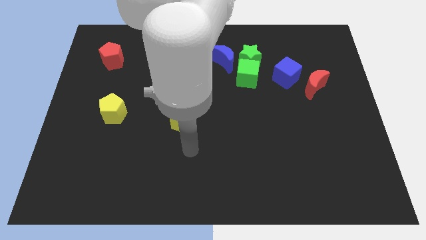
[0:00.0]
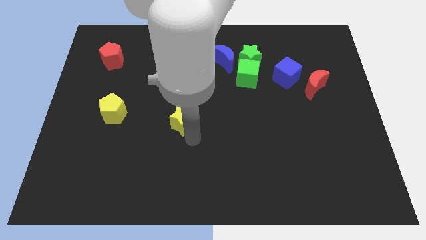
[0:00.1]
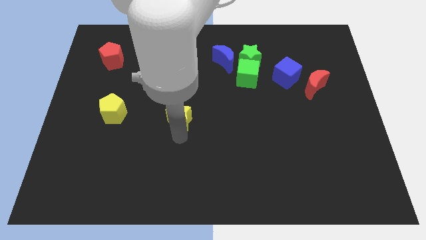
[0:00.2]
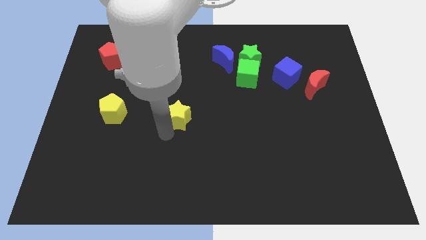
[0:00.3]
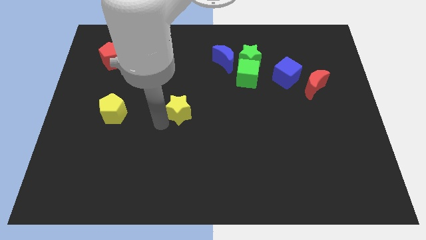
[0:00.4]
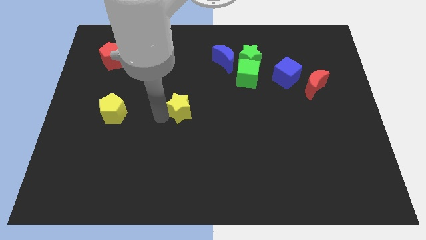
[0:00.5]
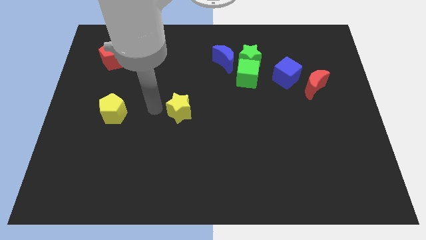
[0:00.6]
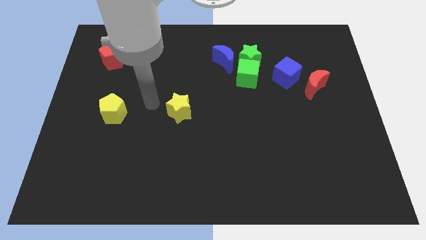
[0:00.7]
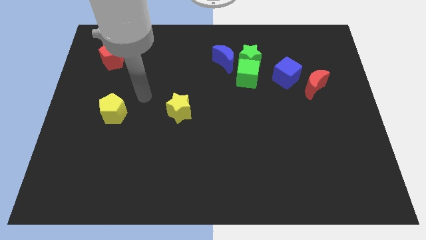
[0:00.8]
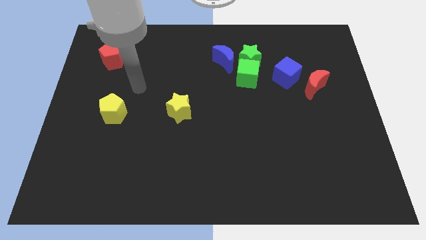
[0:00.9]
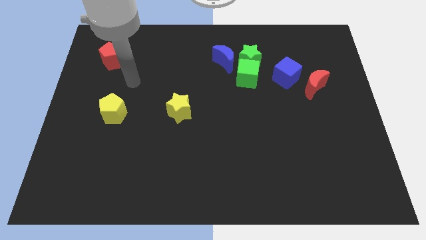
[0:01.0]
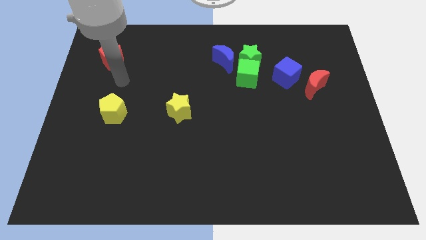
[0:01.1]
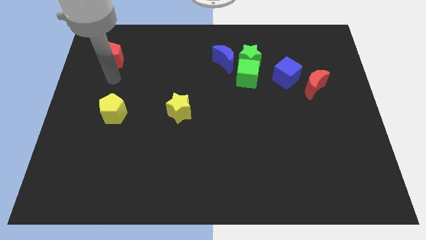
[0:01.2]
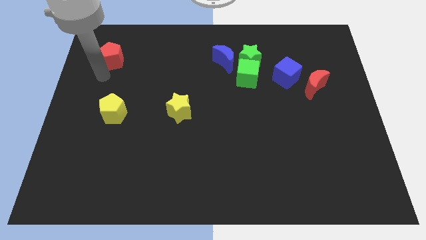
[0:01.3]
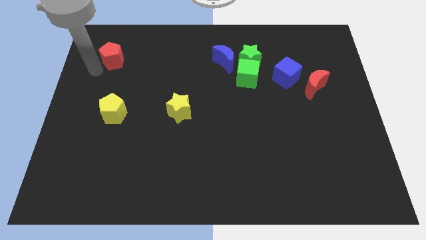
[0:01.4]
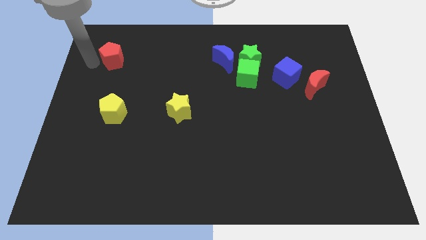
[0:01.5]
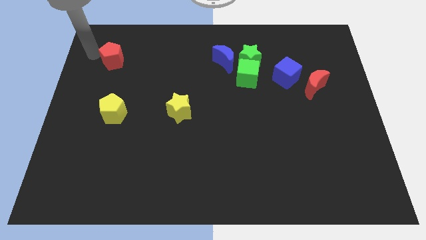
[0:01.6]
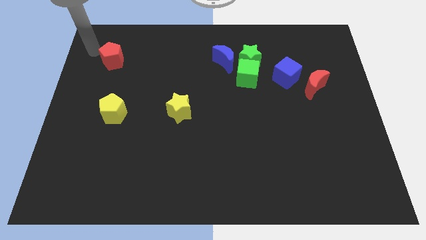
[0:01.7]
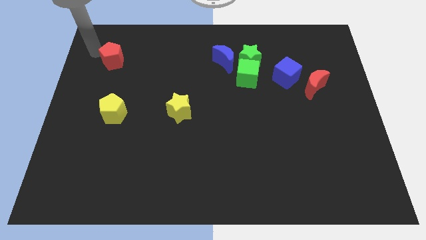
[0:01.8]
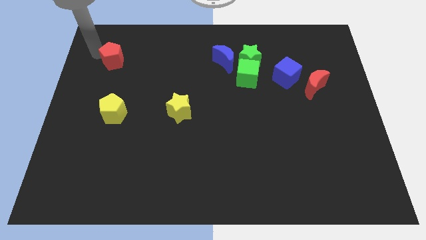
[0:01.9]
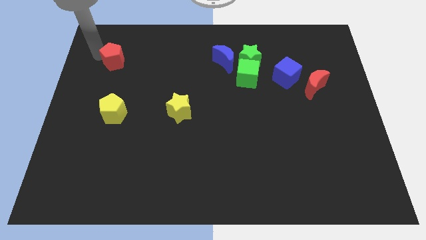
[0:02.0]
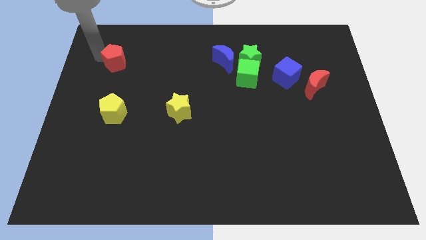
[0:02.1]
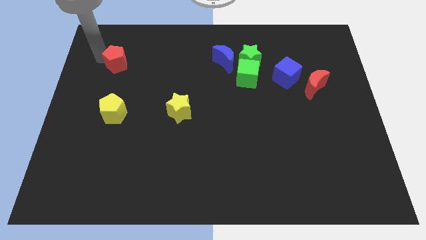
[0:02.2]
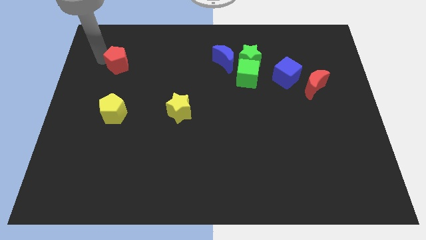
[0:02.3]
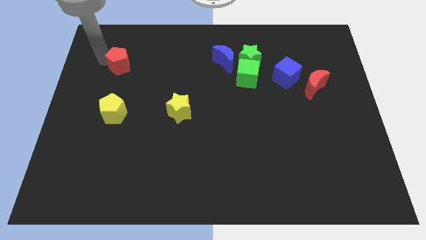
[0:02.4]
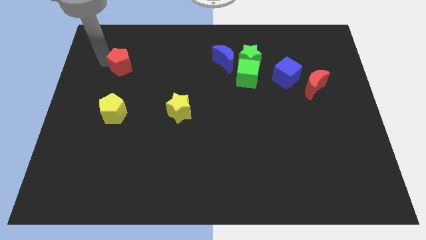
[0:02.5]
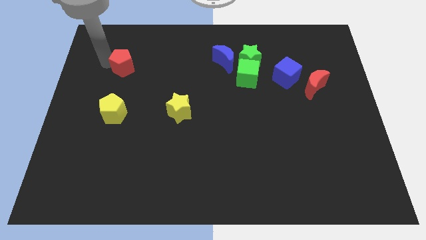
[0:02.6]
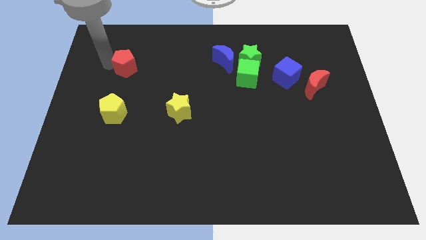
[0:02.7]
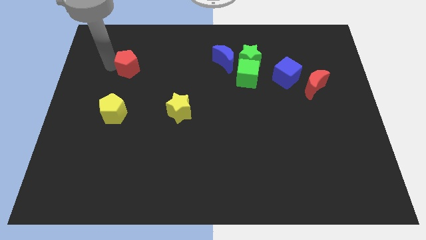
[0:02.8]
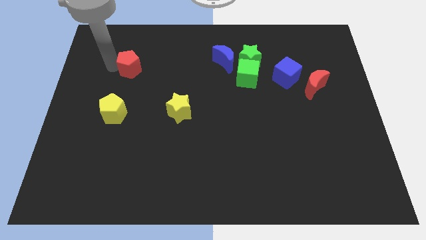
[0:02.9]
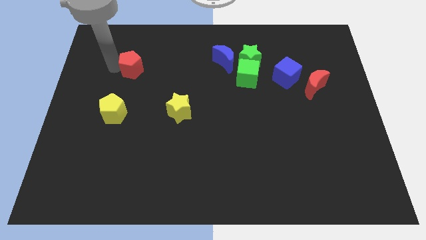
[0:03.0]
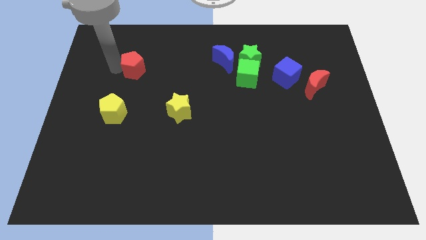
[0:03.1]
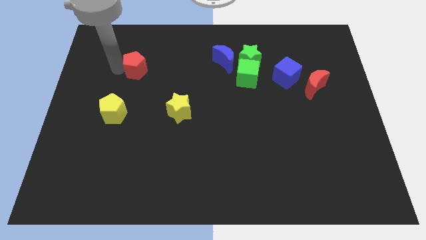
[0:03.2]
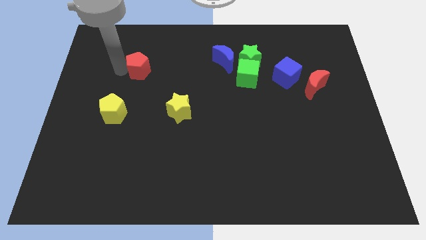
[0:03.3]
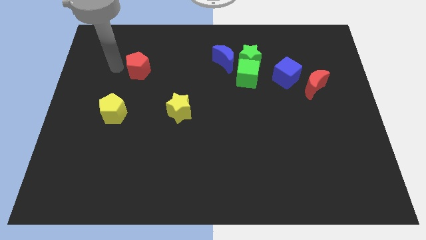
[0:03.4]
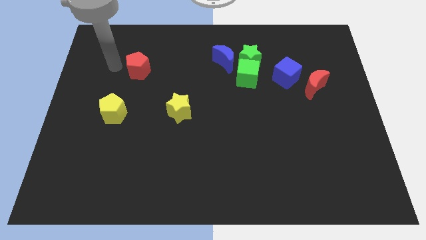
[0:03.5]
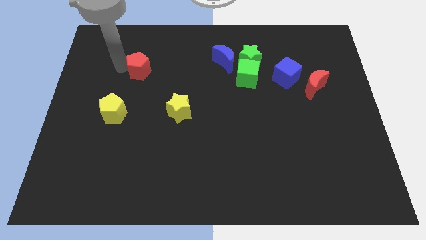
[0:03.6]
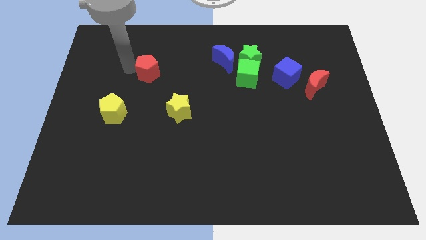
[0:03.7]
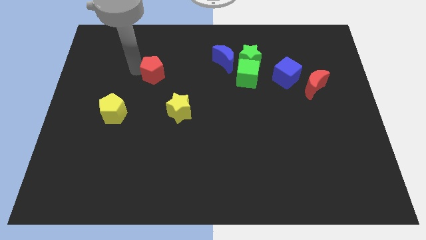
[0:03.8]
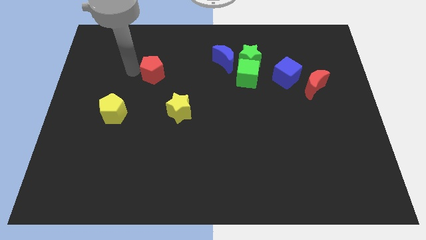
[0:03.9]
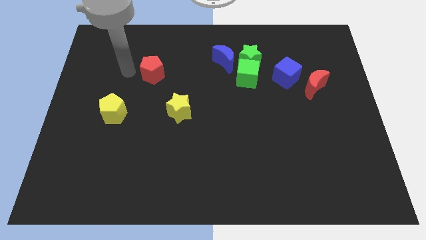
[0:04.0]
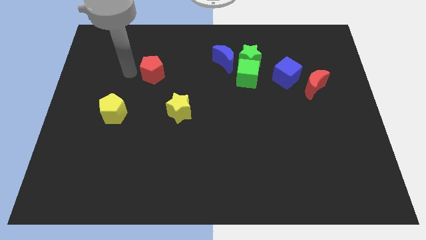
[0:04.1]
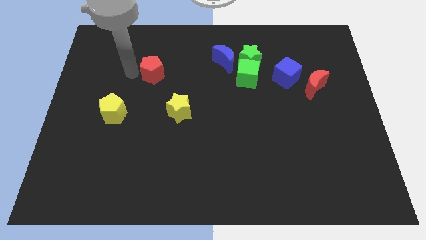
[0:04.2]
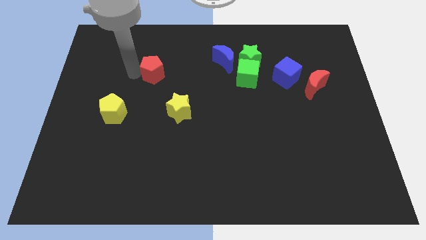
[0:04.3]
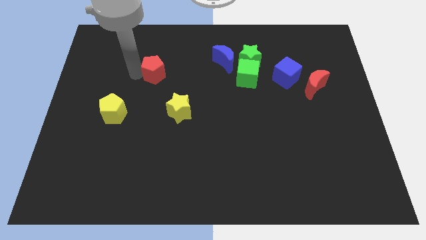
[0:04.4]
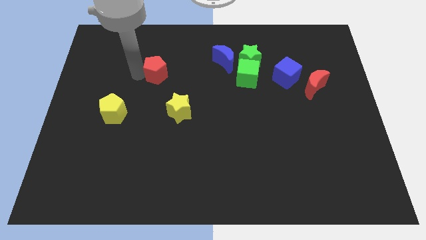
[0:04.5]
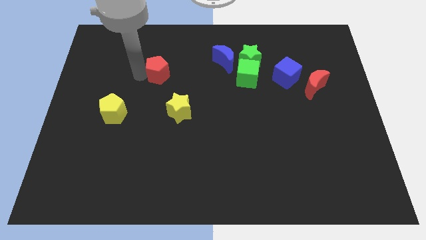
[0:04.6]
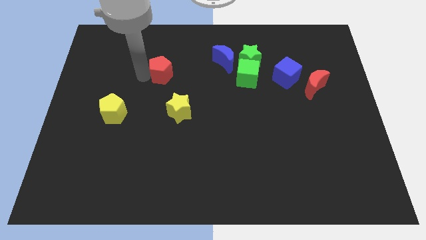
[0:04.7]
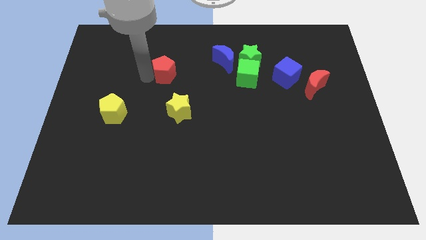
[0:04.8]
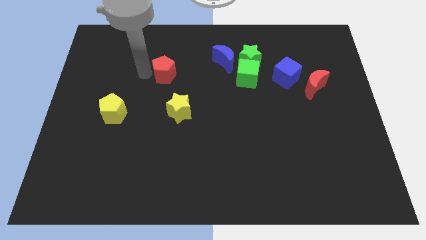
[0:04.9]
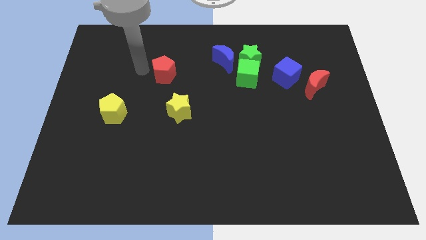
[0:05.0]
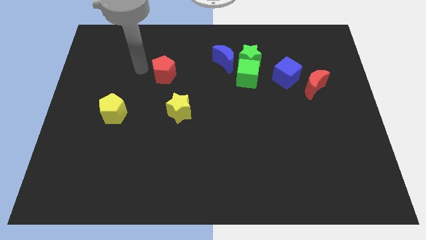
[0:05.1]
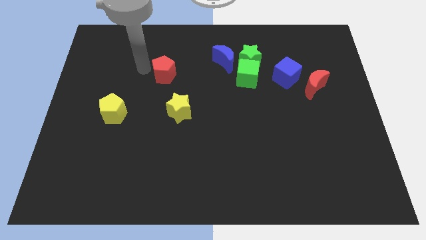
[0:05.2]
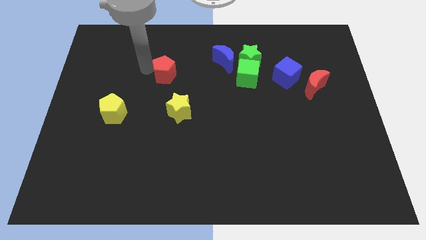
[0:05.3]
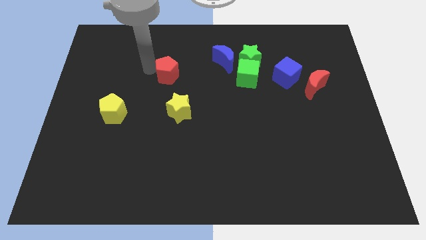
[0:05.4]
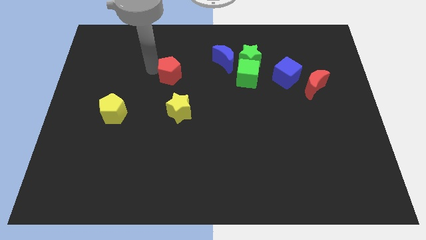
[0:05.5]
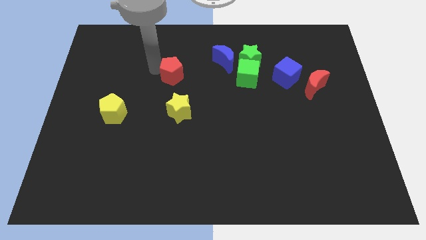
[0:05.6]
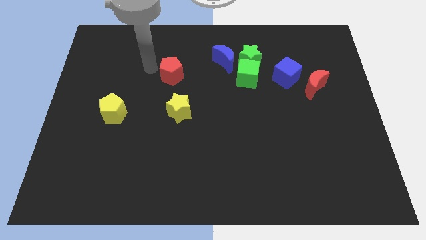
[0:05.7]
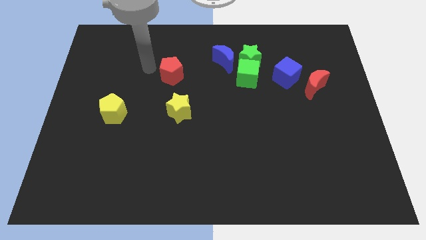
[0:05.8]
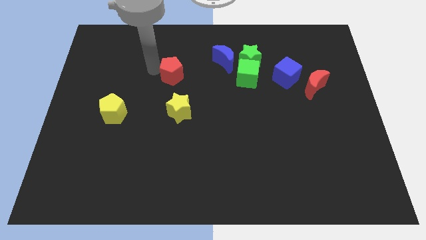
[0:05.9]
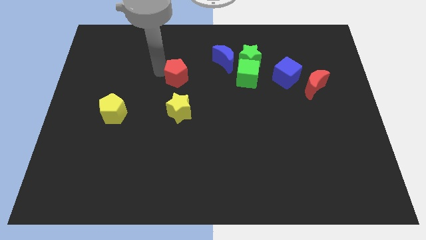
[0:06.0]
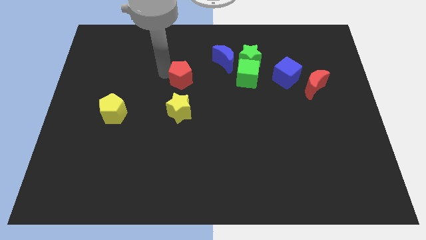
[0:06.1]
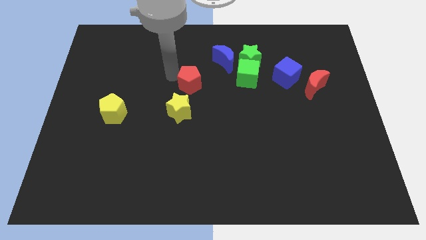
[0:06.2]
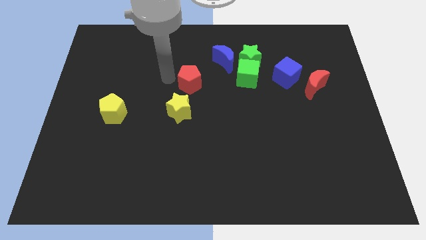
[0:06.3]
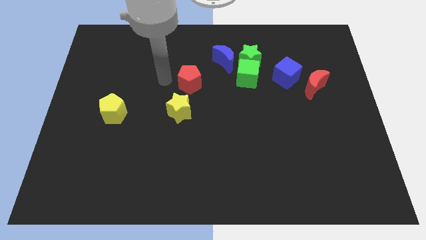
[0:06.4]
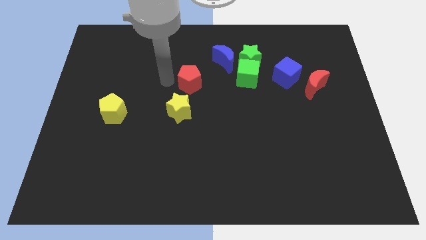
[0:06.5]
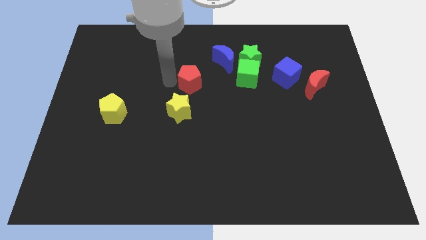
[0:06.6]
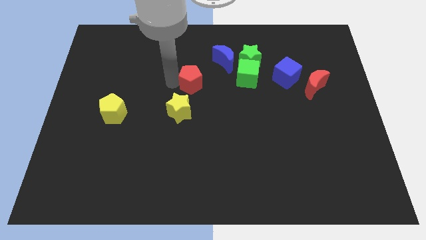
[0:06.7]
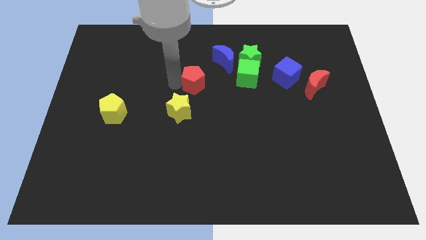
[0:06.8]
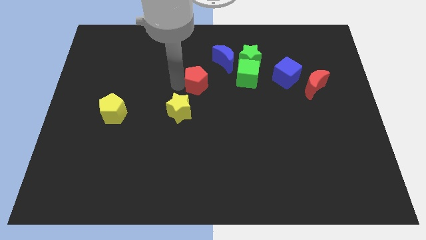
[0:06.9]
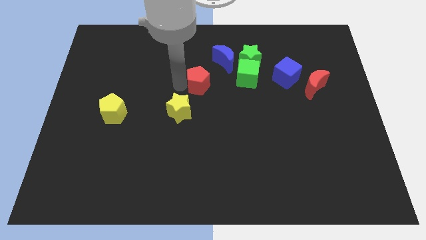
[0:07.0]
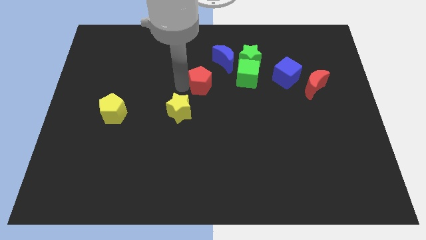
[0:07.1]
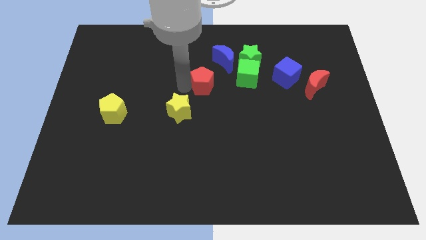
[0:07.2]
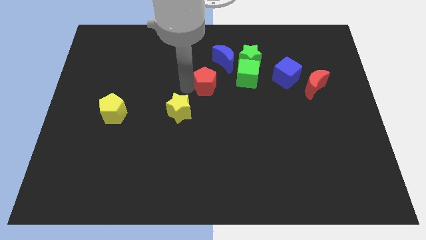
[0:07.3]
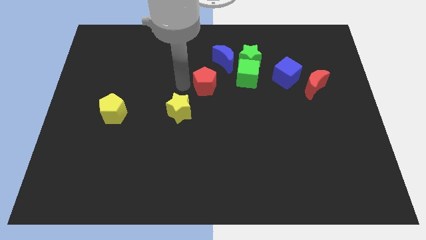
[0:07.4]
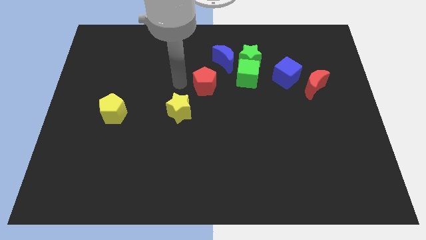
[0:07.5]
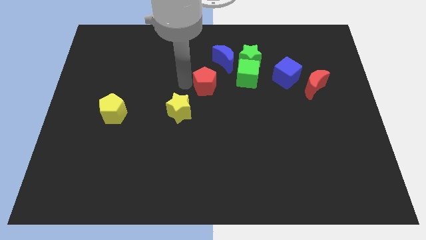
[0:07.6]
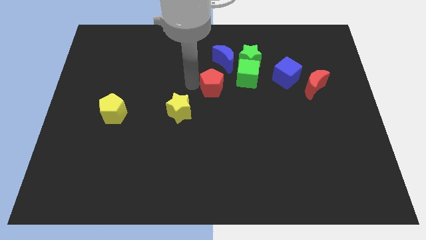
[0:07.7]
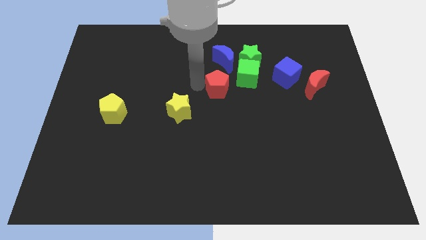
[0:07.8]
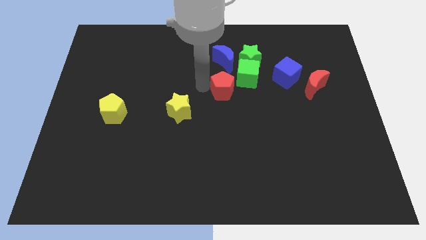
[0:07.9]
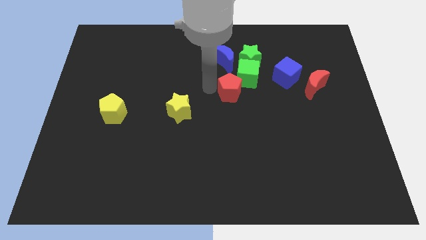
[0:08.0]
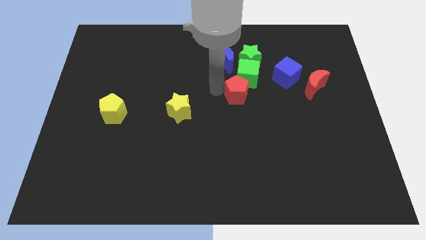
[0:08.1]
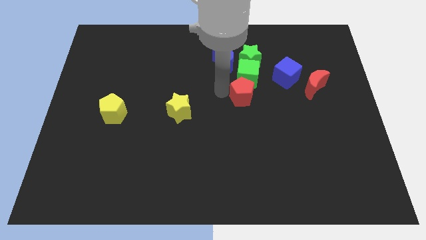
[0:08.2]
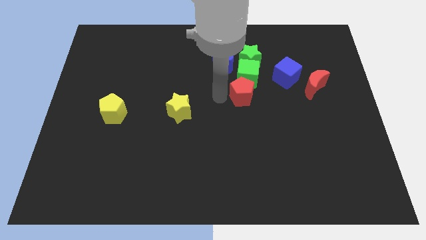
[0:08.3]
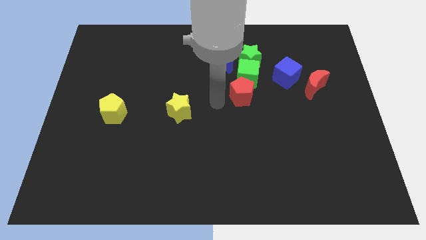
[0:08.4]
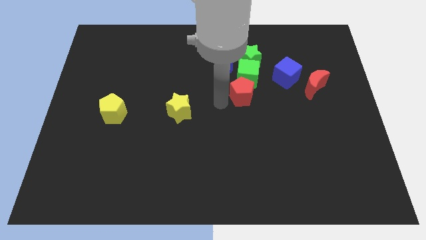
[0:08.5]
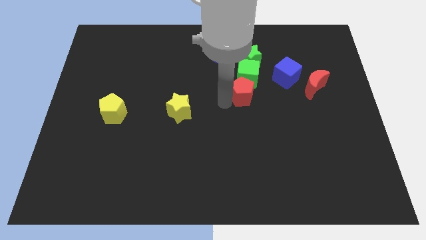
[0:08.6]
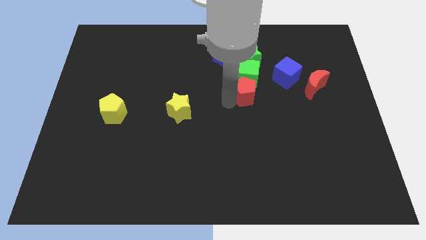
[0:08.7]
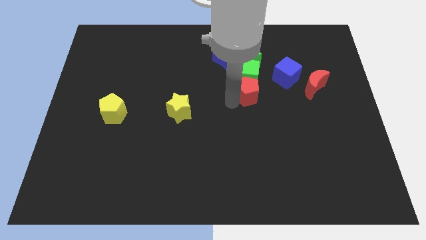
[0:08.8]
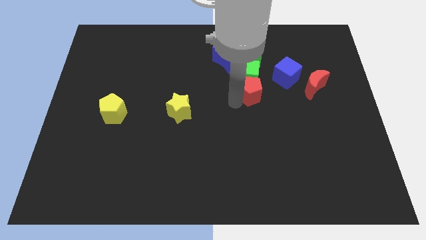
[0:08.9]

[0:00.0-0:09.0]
push the red pentagon left of the red moon
